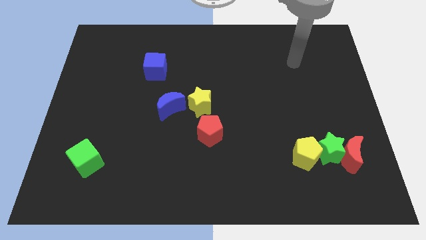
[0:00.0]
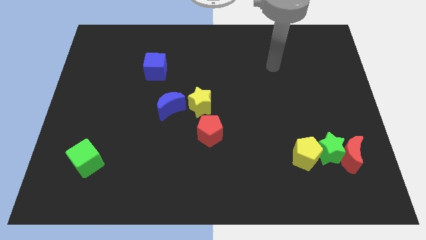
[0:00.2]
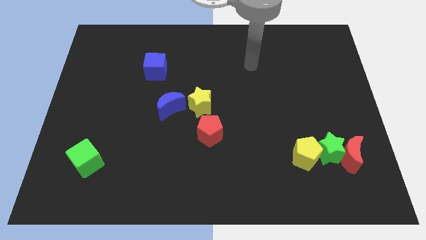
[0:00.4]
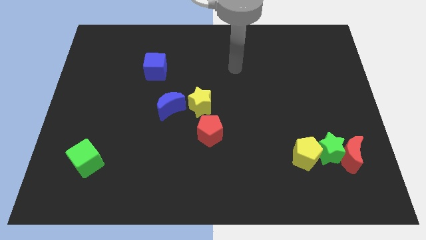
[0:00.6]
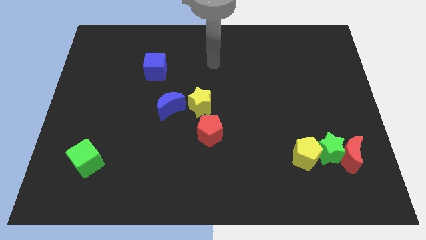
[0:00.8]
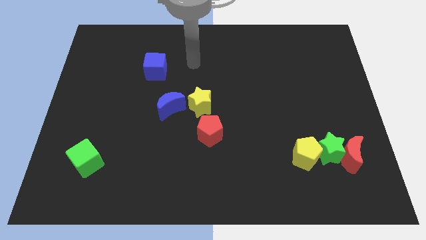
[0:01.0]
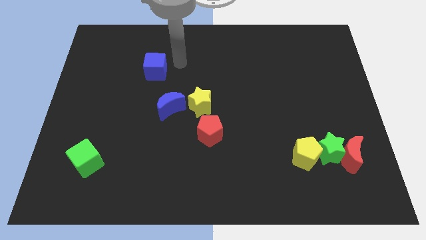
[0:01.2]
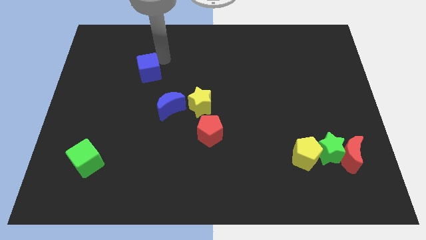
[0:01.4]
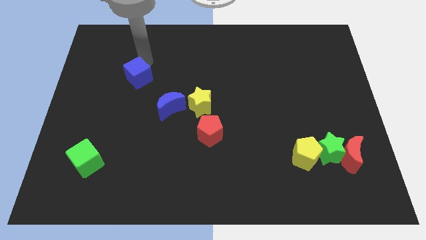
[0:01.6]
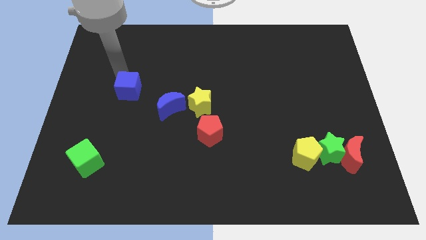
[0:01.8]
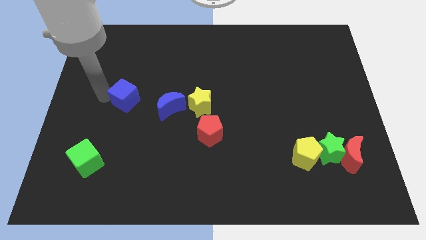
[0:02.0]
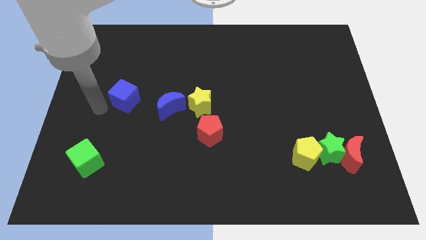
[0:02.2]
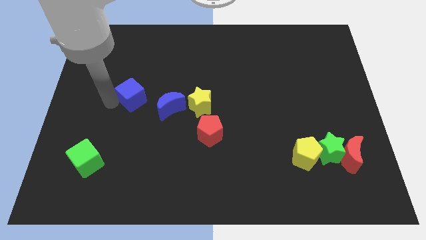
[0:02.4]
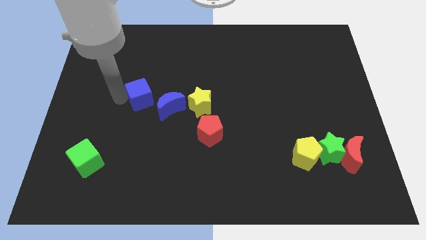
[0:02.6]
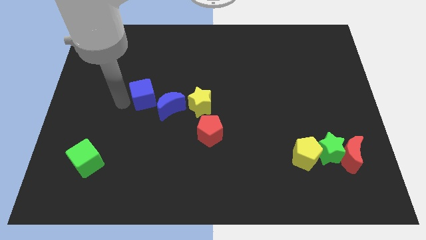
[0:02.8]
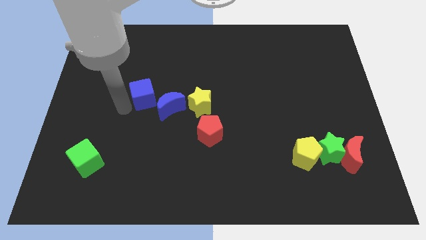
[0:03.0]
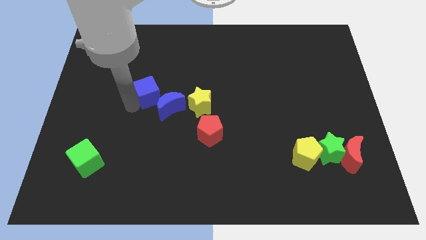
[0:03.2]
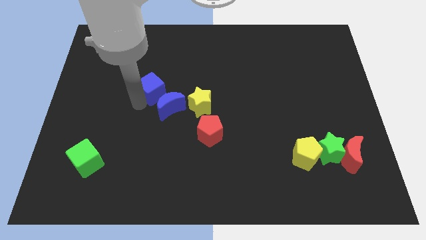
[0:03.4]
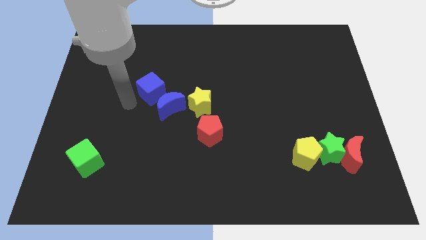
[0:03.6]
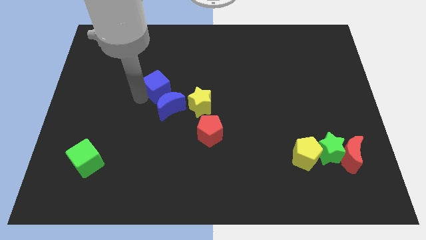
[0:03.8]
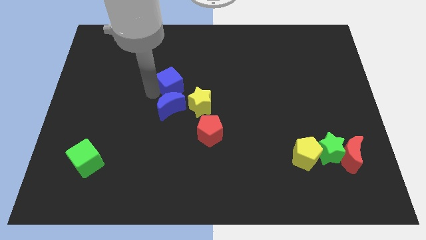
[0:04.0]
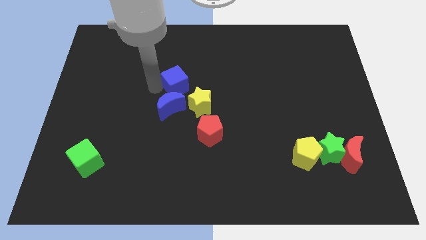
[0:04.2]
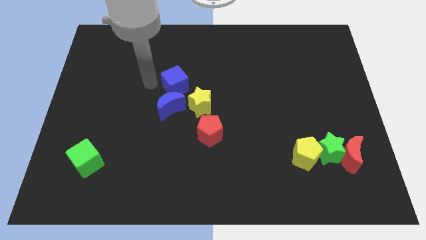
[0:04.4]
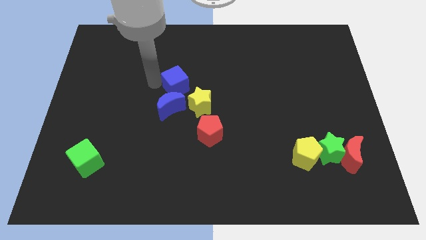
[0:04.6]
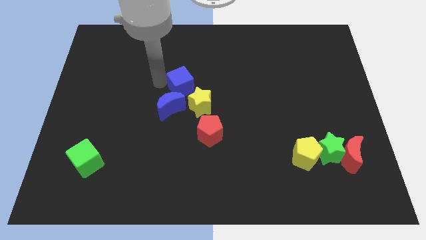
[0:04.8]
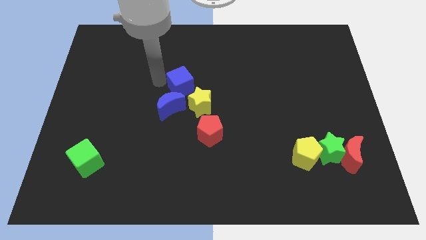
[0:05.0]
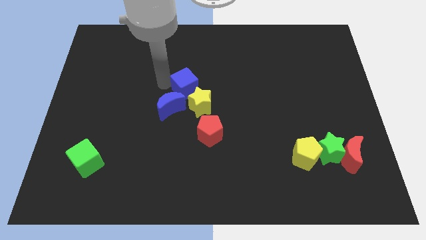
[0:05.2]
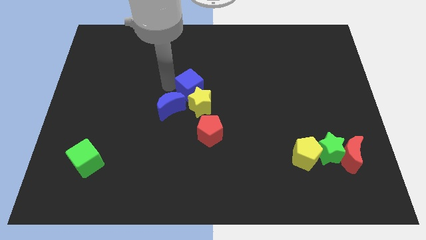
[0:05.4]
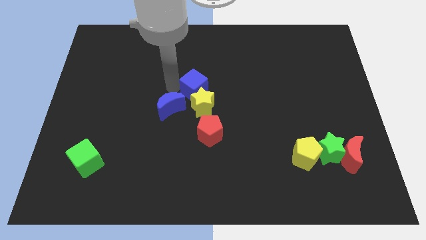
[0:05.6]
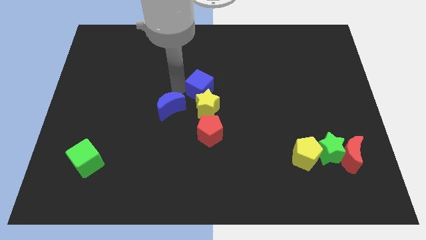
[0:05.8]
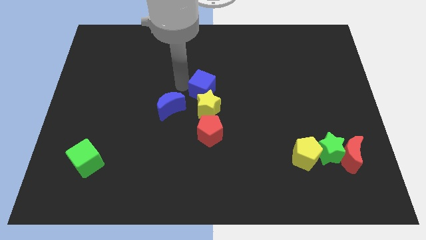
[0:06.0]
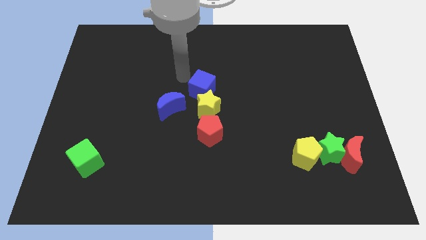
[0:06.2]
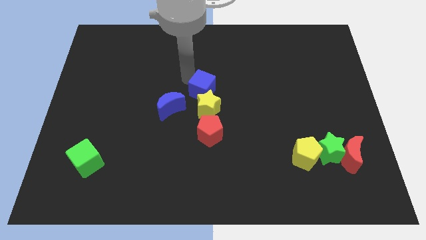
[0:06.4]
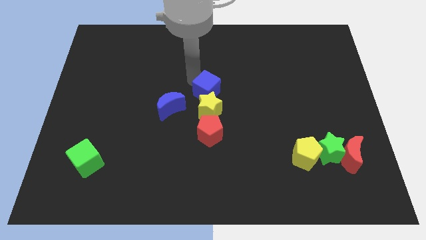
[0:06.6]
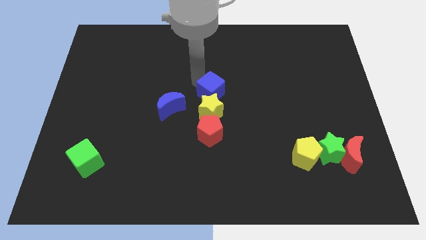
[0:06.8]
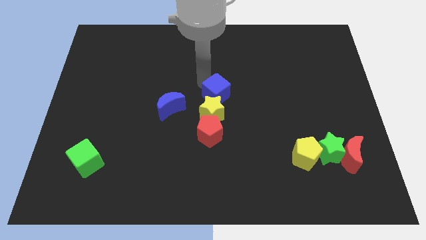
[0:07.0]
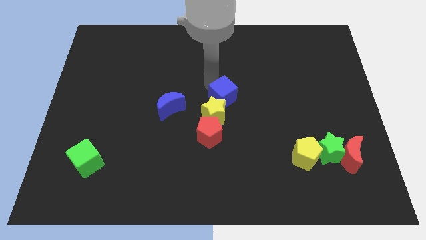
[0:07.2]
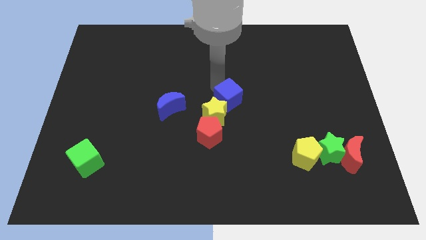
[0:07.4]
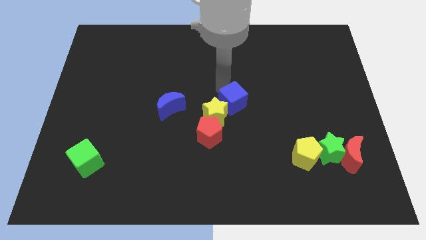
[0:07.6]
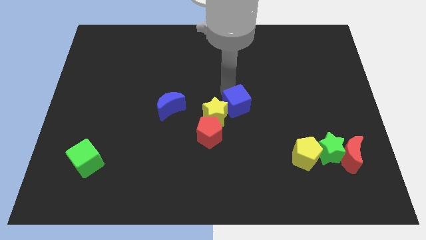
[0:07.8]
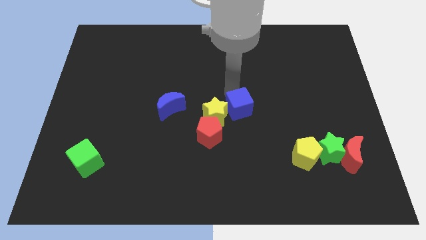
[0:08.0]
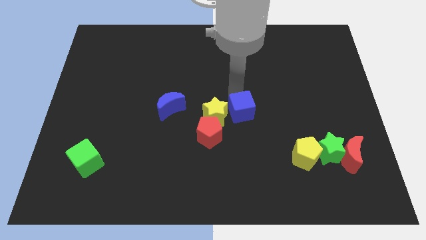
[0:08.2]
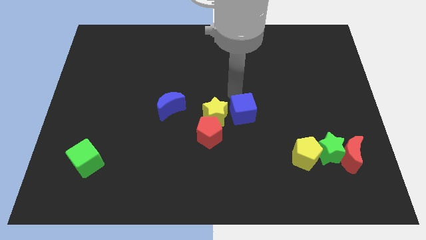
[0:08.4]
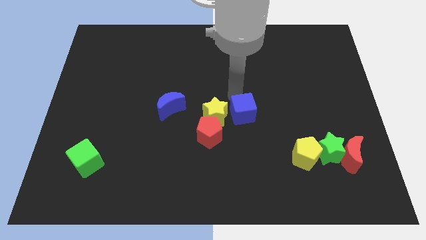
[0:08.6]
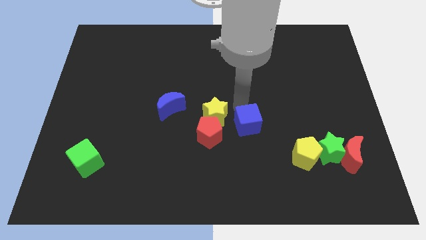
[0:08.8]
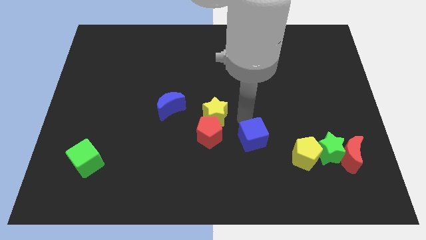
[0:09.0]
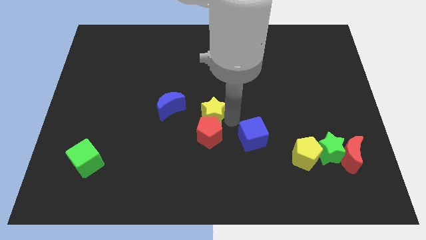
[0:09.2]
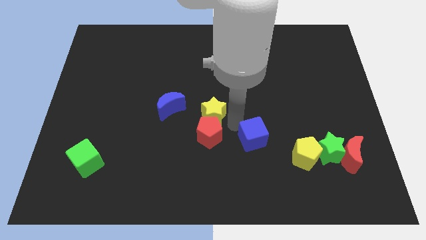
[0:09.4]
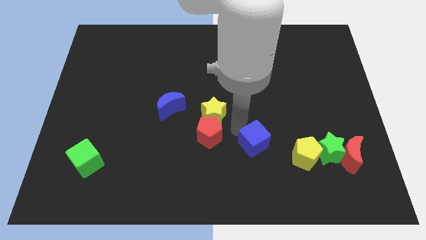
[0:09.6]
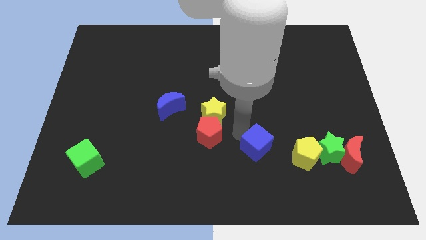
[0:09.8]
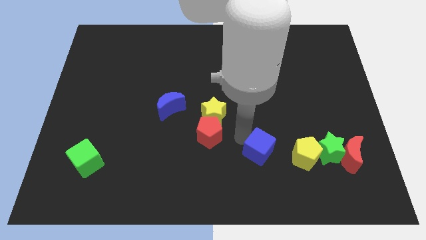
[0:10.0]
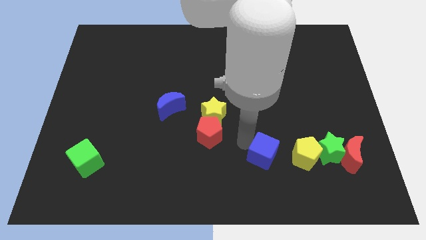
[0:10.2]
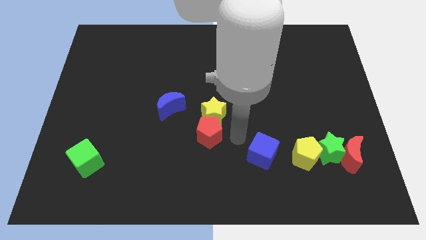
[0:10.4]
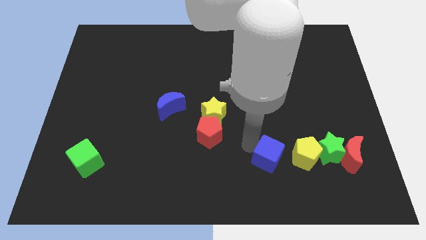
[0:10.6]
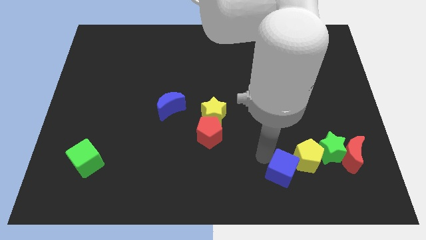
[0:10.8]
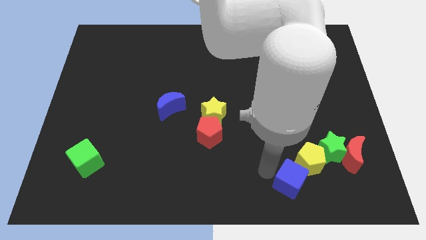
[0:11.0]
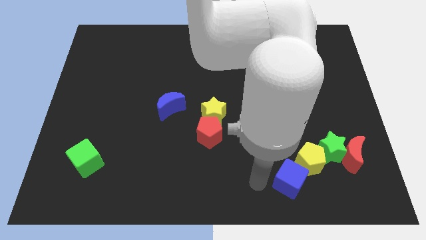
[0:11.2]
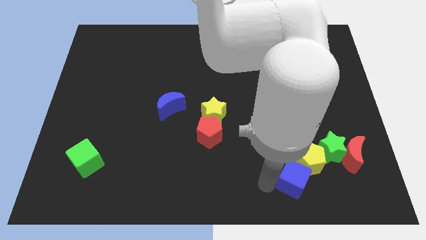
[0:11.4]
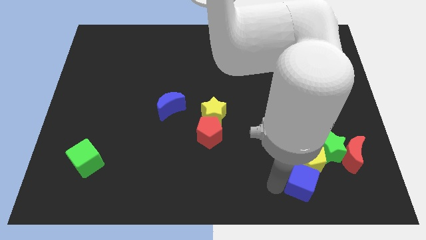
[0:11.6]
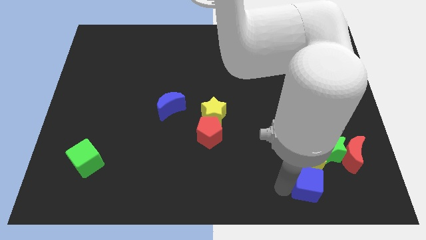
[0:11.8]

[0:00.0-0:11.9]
move the blue cube to the bottom left side of the red moon

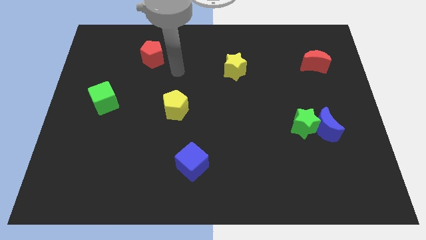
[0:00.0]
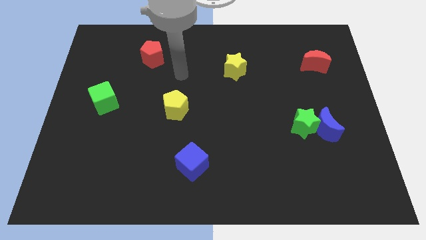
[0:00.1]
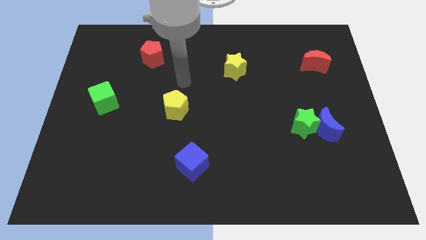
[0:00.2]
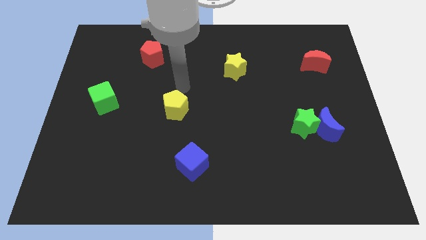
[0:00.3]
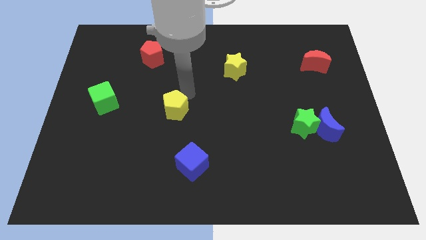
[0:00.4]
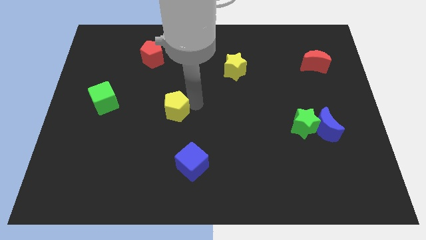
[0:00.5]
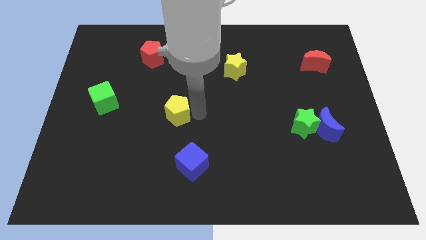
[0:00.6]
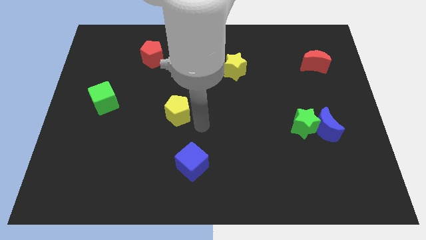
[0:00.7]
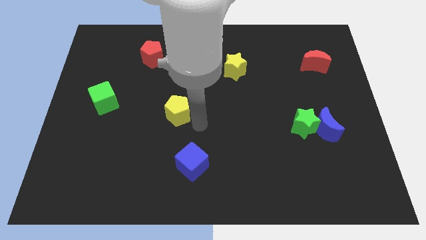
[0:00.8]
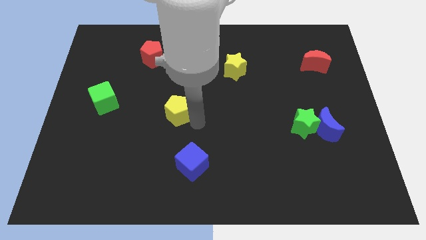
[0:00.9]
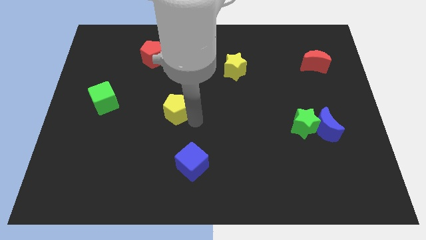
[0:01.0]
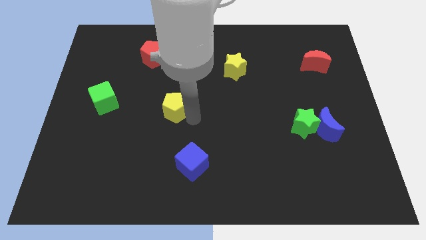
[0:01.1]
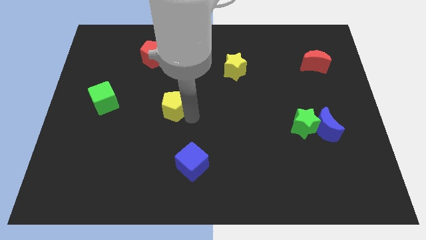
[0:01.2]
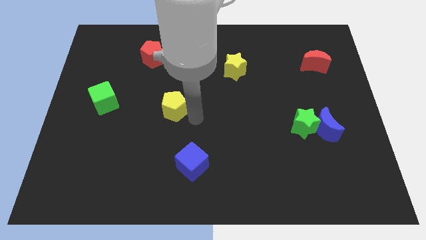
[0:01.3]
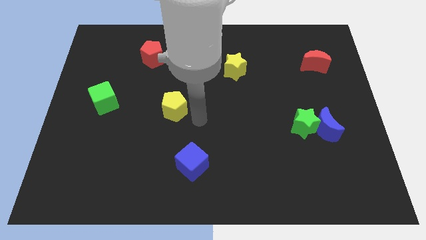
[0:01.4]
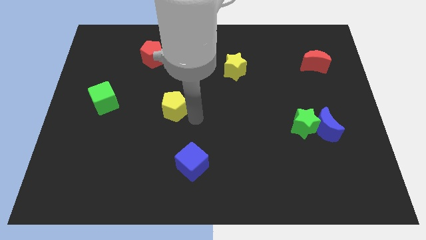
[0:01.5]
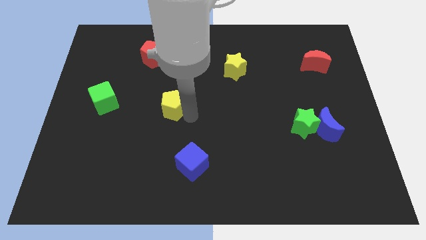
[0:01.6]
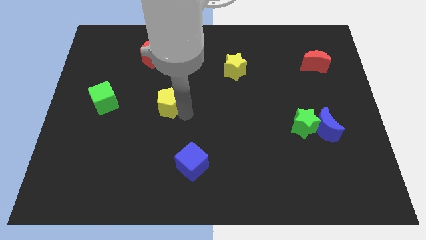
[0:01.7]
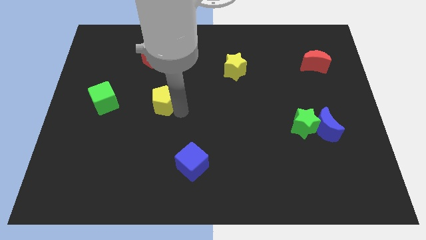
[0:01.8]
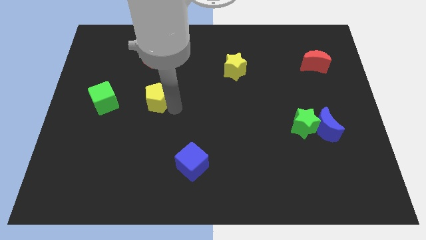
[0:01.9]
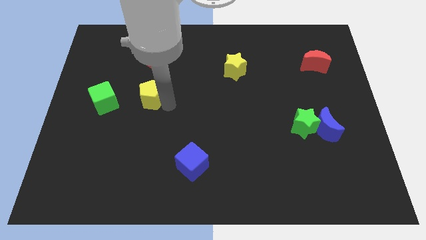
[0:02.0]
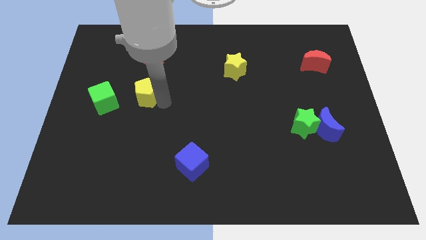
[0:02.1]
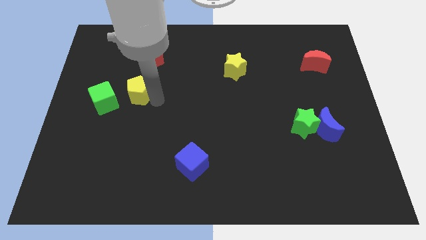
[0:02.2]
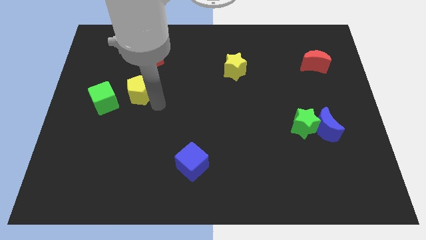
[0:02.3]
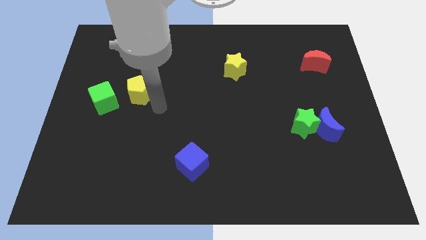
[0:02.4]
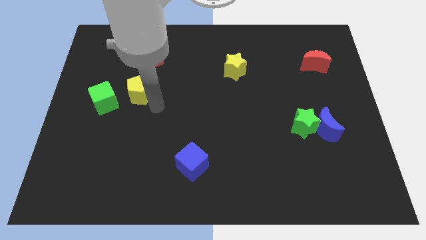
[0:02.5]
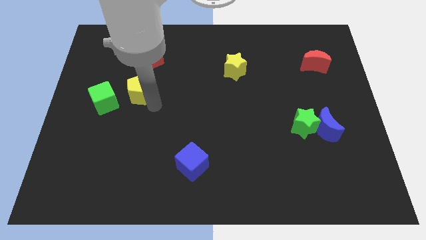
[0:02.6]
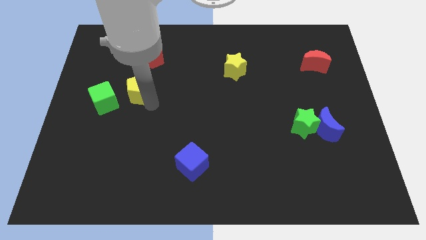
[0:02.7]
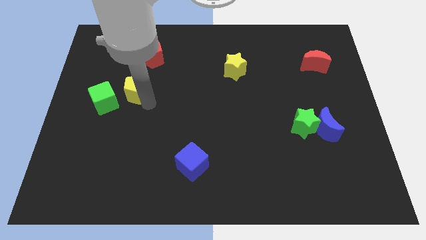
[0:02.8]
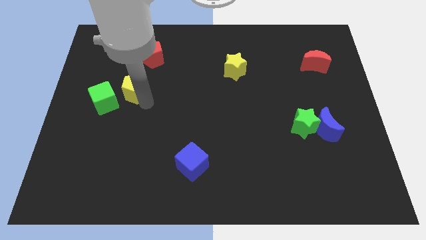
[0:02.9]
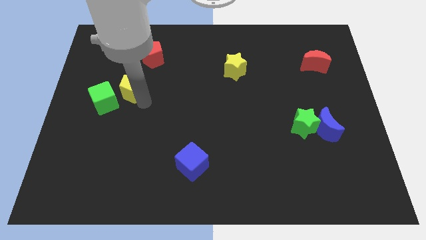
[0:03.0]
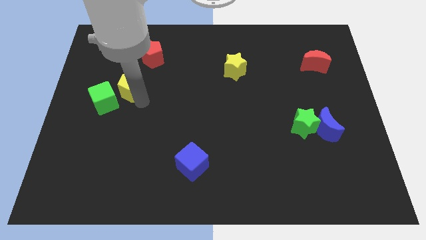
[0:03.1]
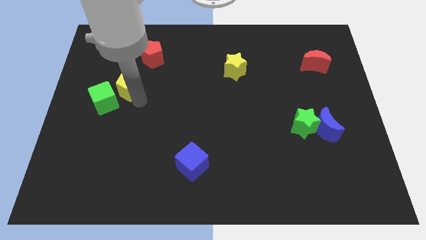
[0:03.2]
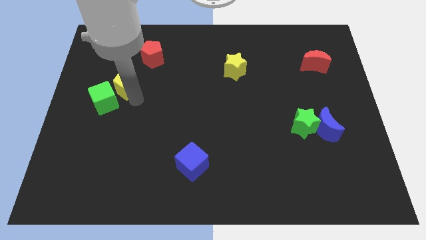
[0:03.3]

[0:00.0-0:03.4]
put the yellow pentagon above the green cube
